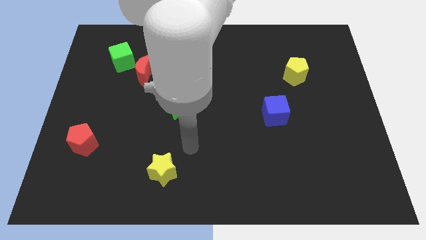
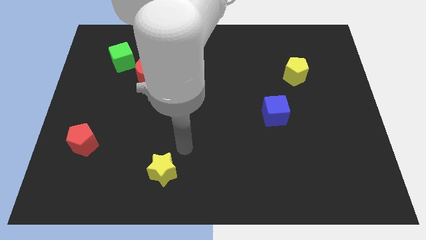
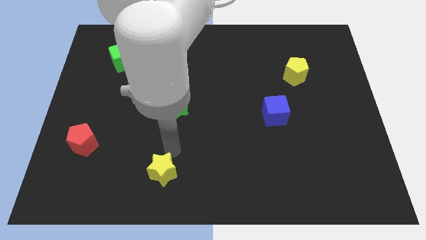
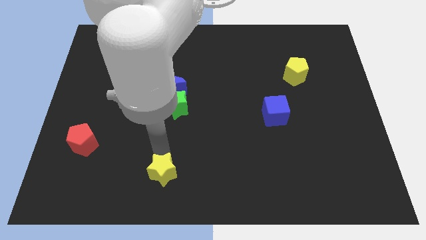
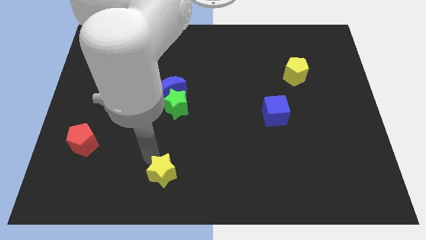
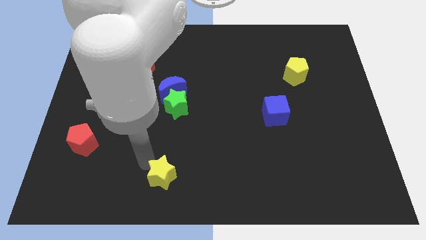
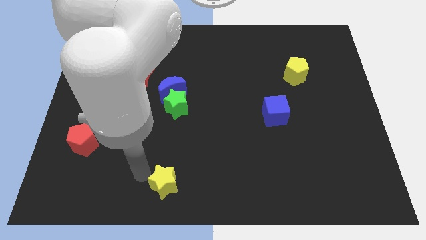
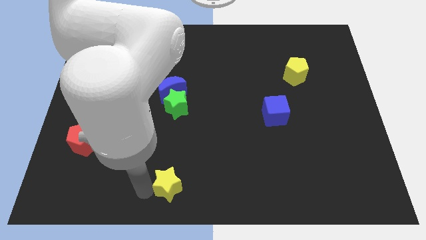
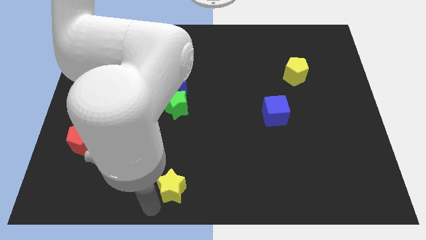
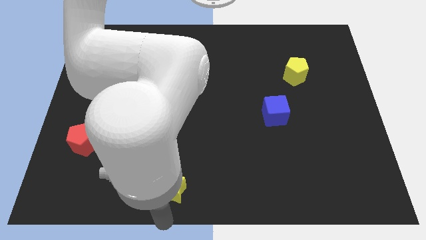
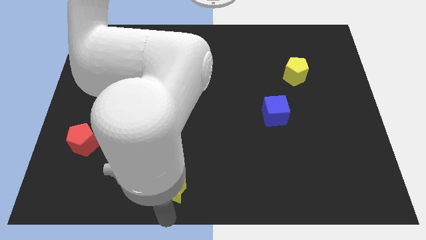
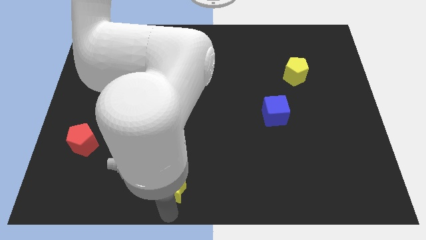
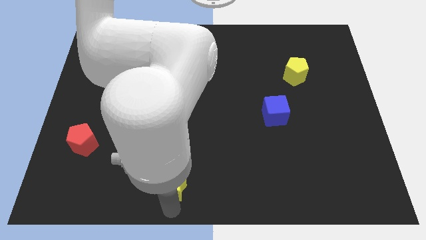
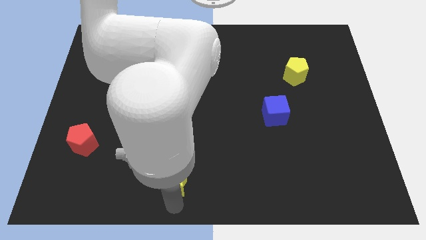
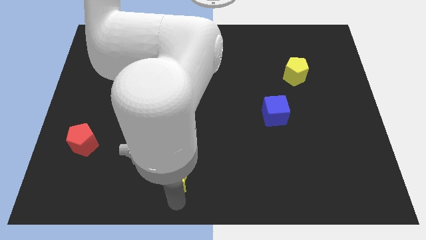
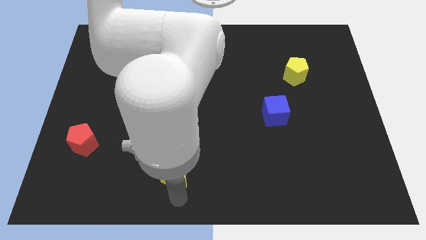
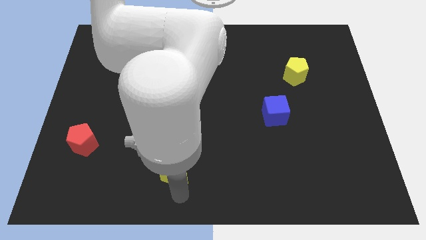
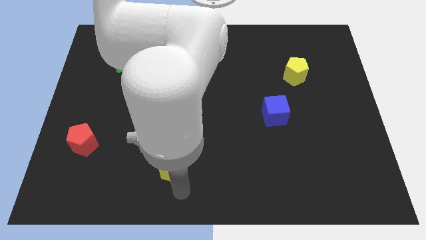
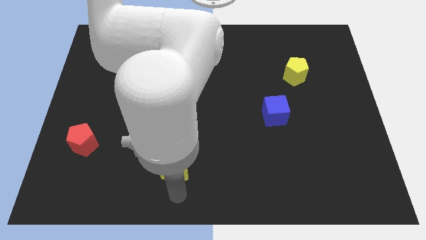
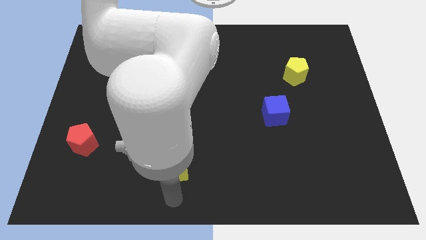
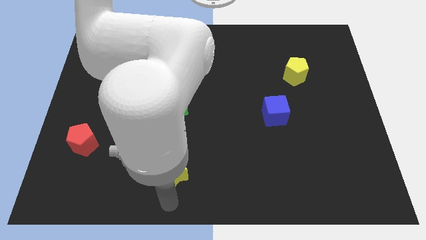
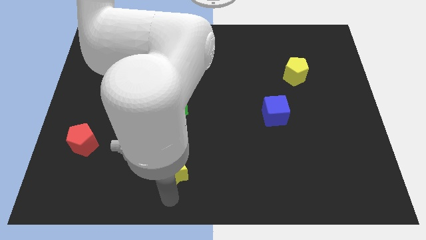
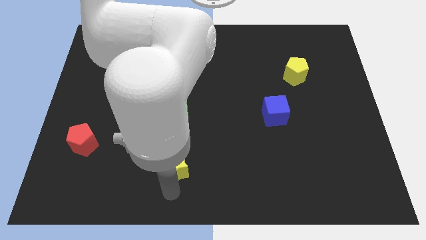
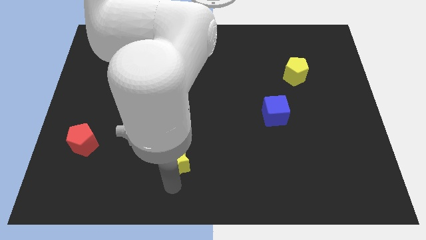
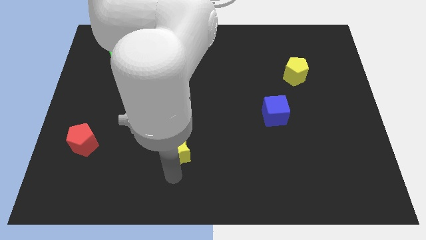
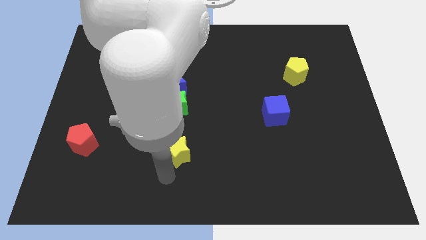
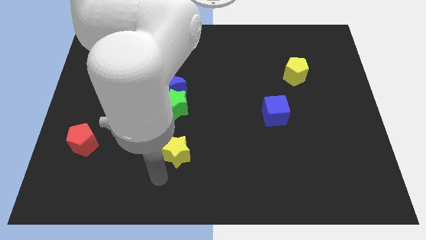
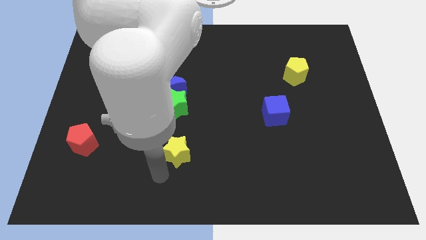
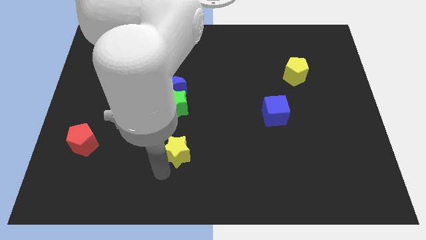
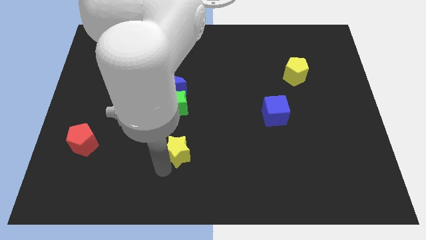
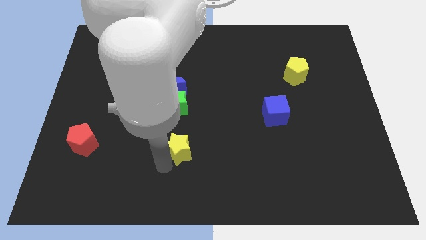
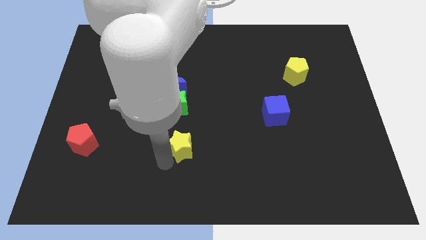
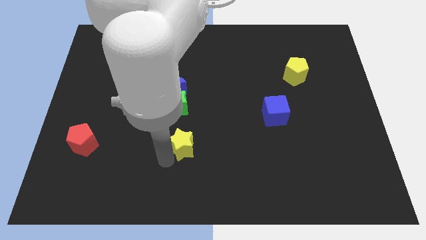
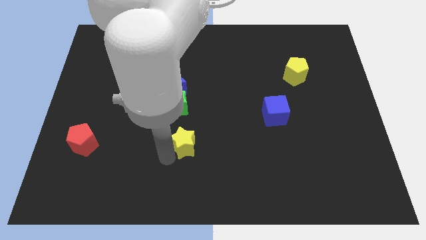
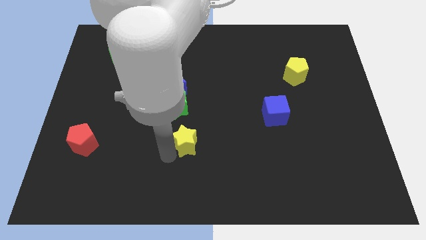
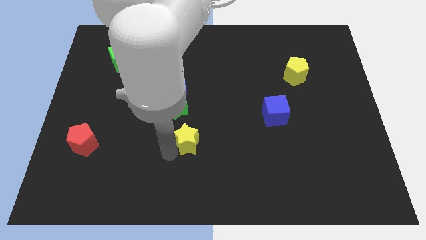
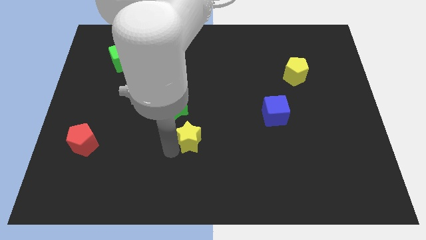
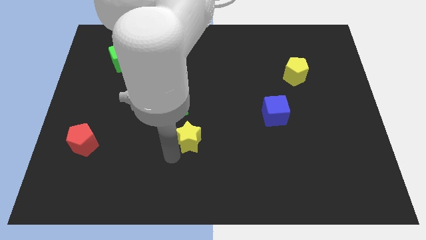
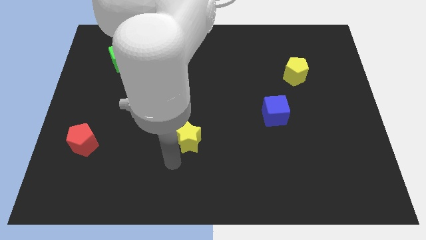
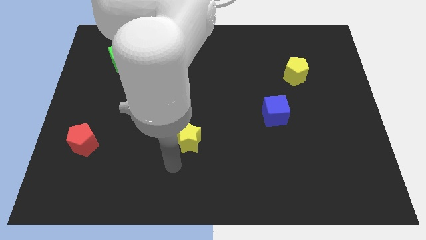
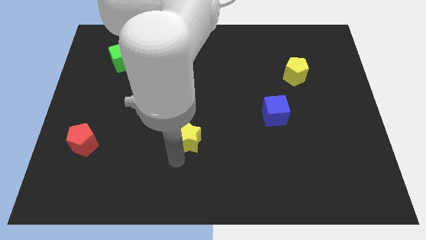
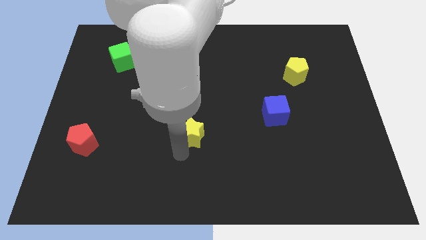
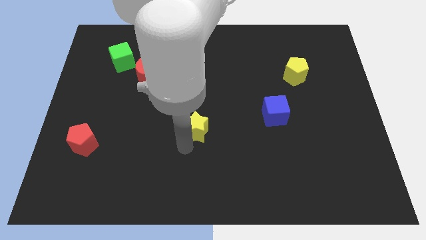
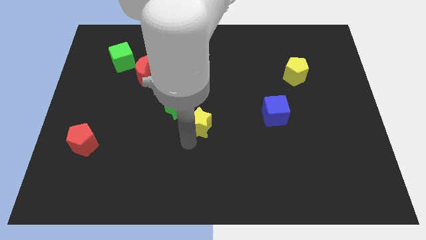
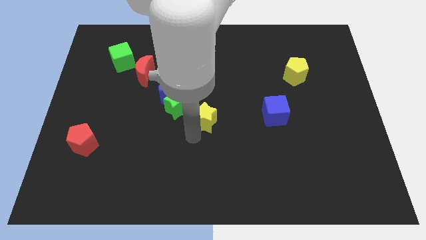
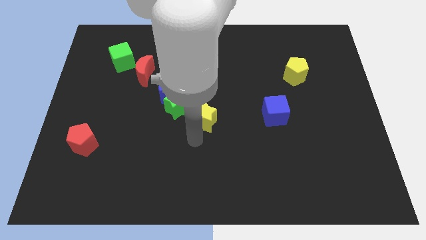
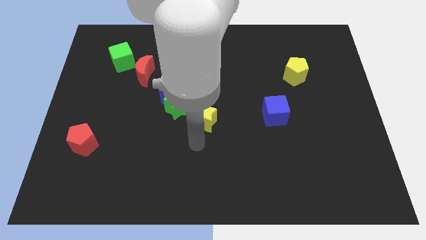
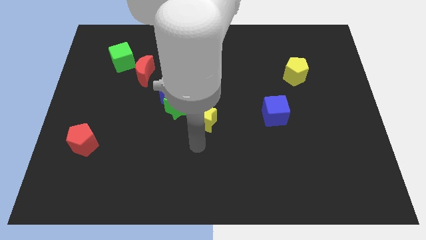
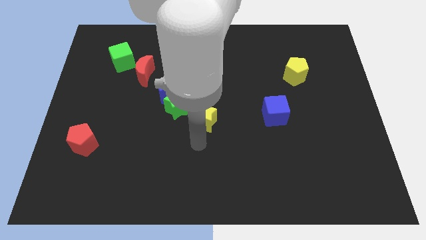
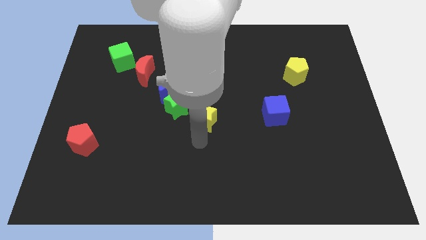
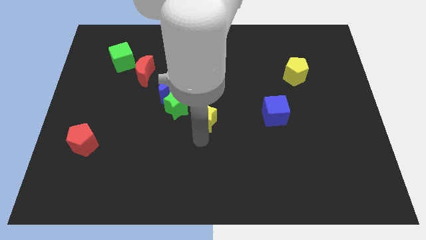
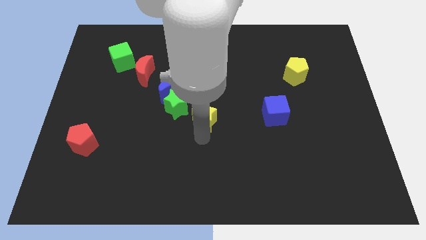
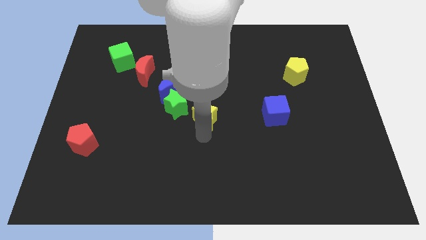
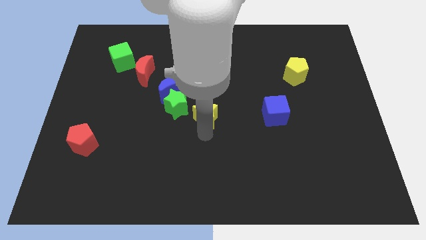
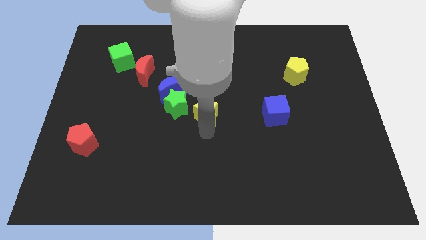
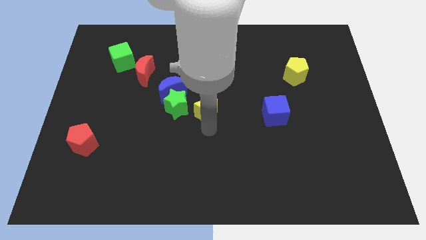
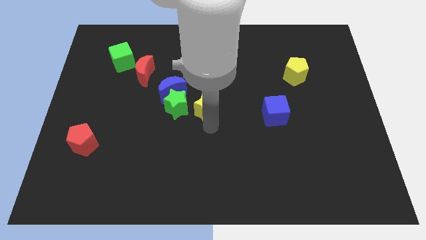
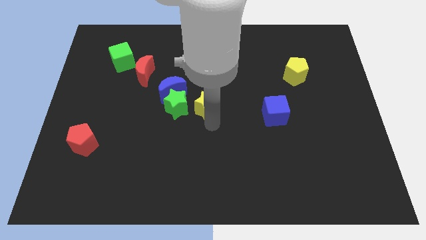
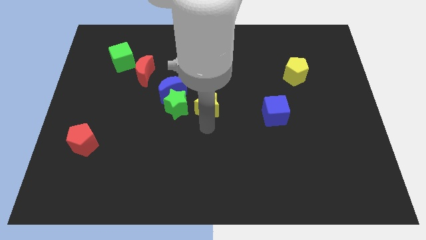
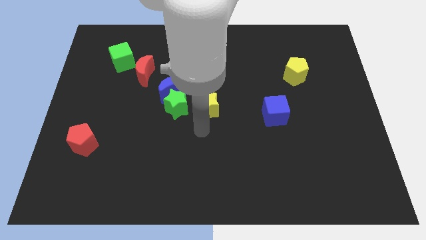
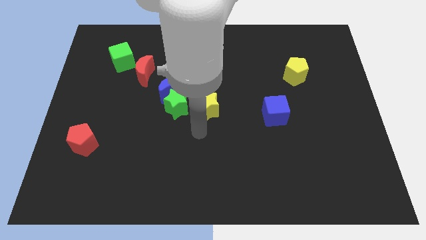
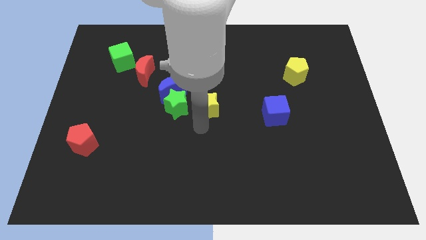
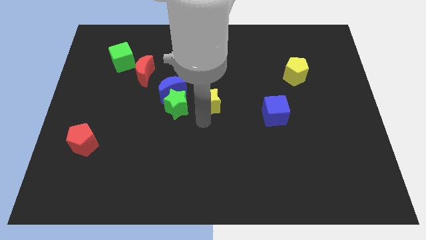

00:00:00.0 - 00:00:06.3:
slide the yellow star to the right of the blue moon
